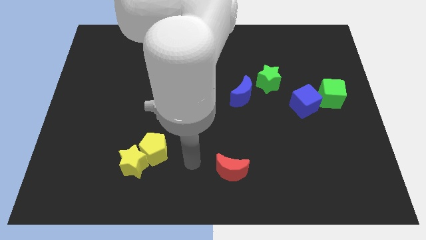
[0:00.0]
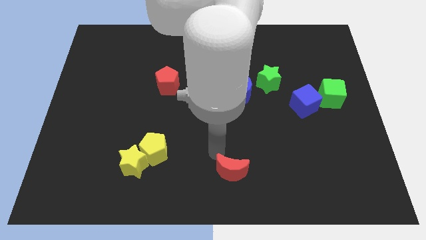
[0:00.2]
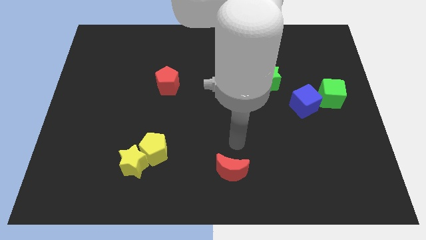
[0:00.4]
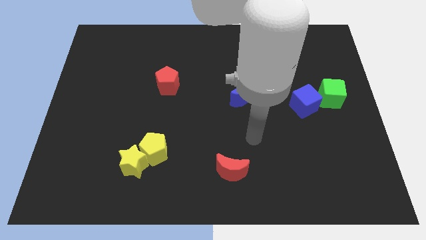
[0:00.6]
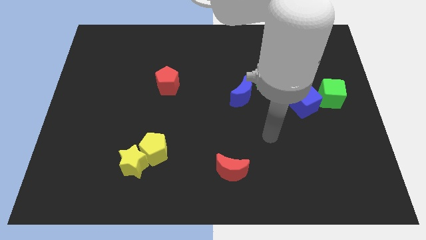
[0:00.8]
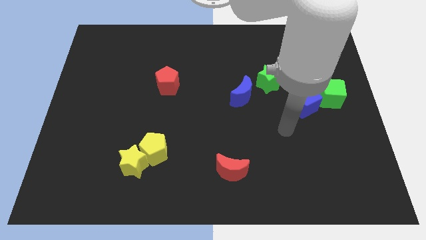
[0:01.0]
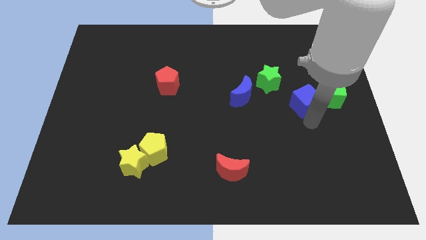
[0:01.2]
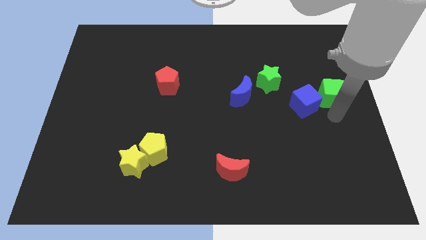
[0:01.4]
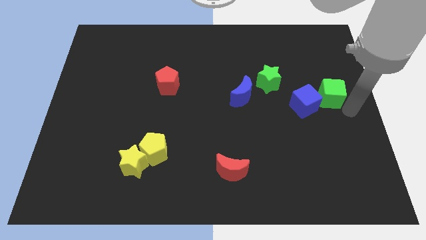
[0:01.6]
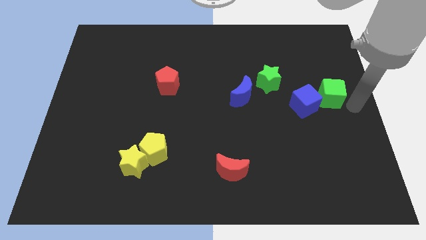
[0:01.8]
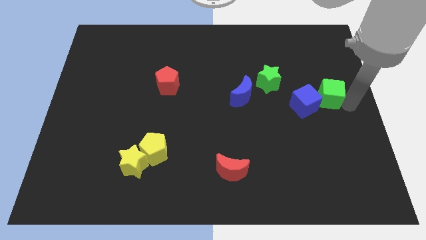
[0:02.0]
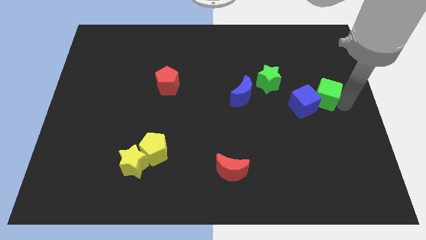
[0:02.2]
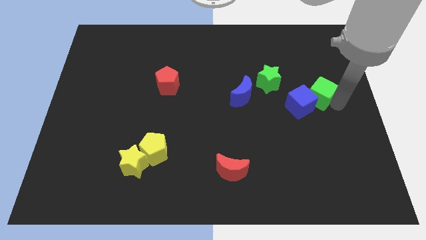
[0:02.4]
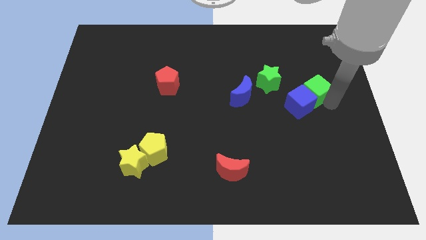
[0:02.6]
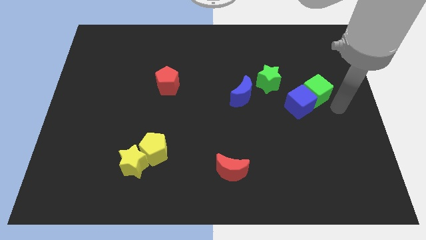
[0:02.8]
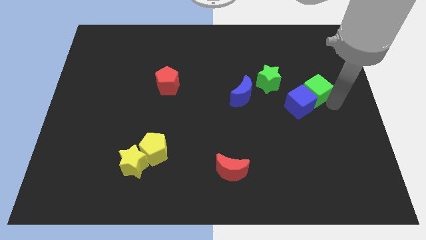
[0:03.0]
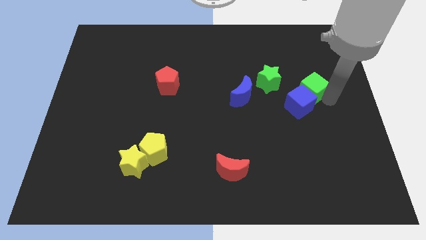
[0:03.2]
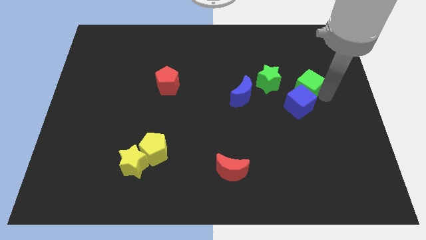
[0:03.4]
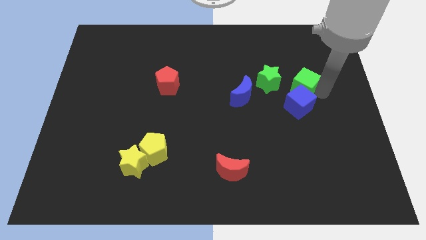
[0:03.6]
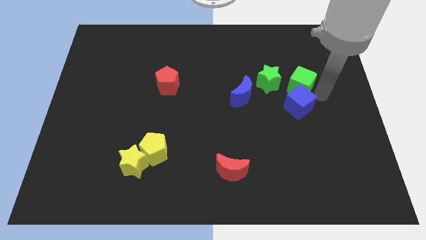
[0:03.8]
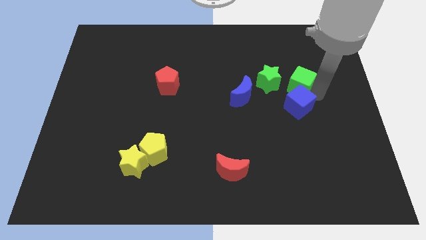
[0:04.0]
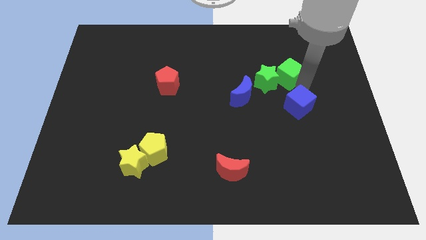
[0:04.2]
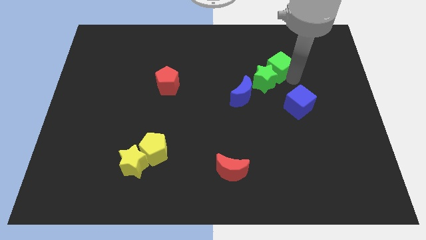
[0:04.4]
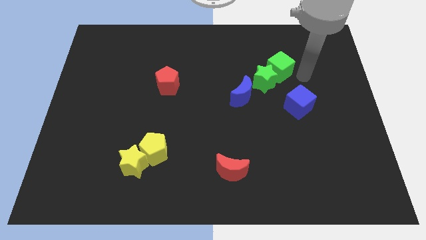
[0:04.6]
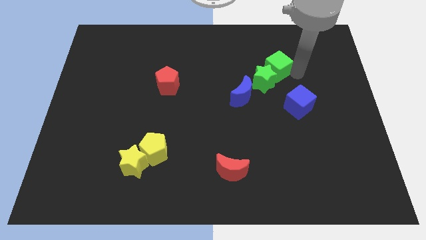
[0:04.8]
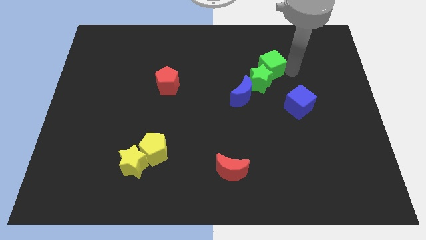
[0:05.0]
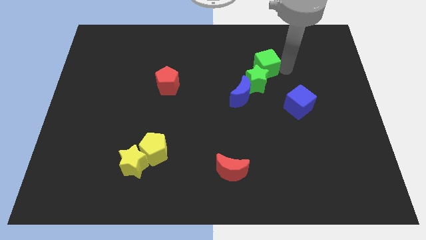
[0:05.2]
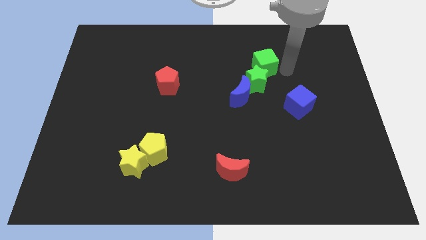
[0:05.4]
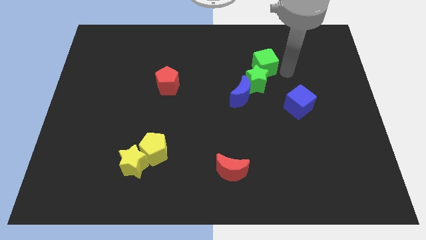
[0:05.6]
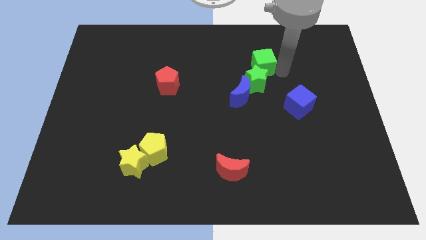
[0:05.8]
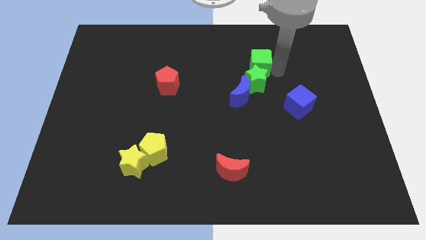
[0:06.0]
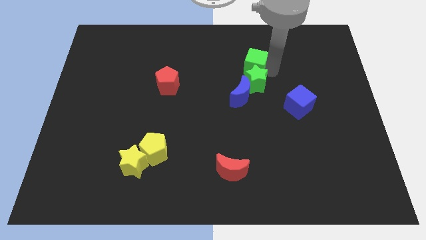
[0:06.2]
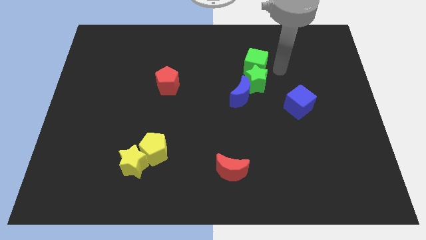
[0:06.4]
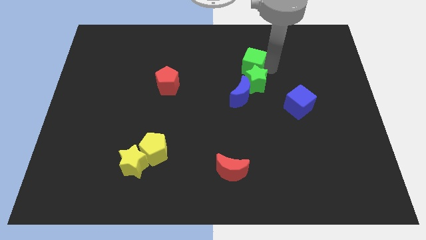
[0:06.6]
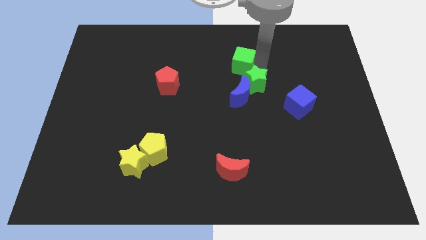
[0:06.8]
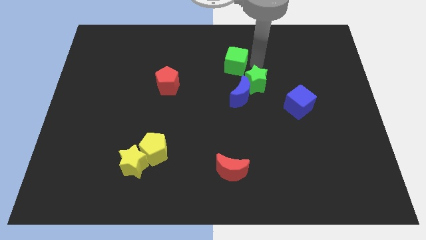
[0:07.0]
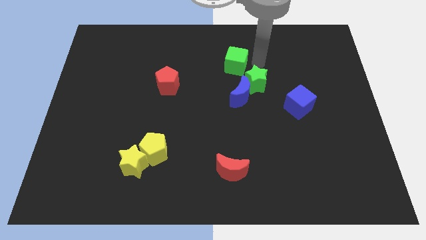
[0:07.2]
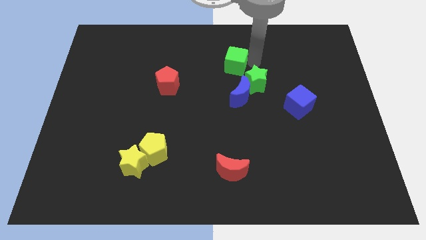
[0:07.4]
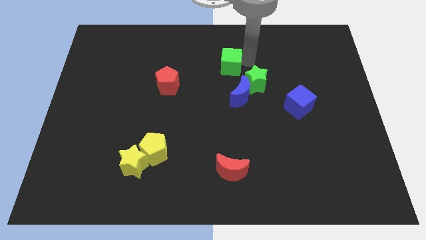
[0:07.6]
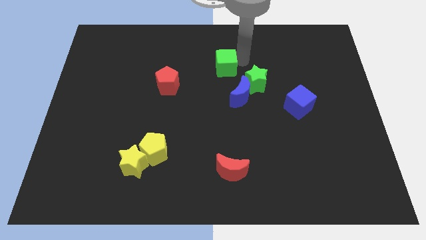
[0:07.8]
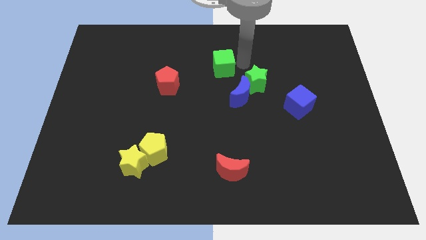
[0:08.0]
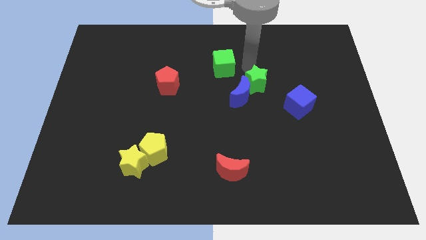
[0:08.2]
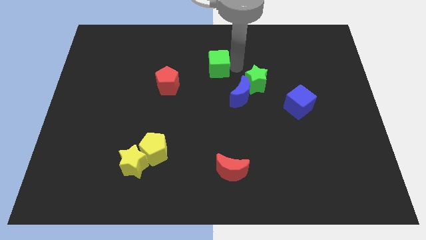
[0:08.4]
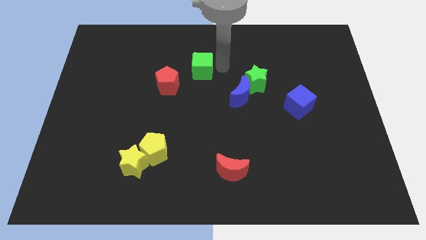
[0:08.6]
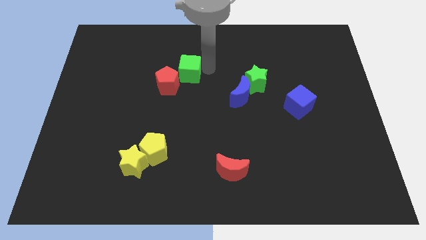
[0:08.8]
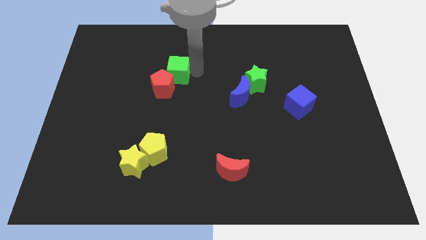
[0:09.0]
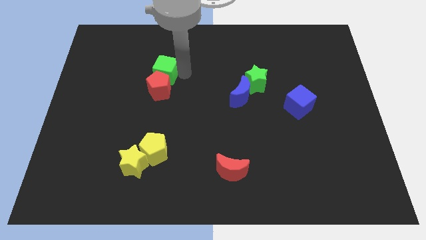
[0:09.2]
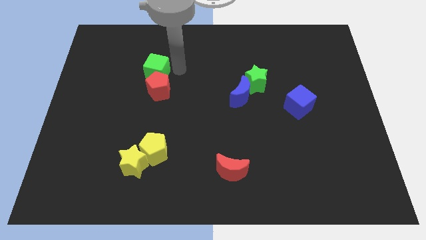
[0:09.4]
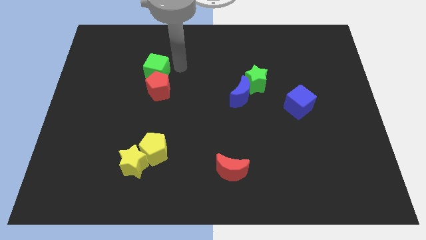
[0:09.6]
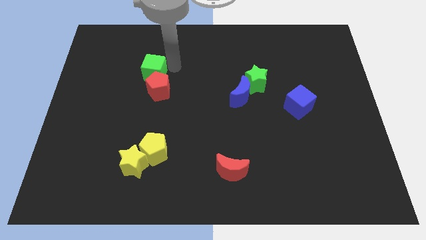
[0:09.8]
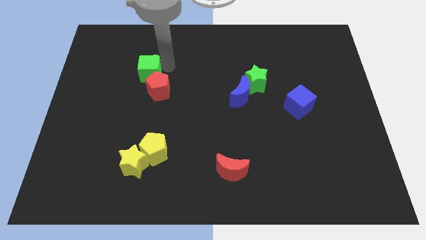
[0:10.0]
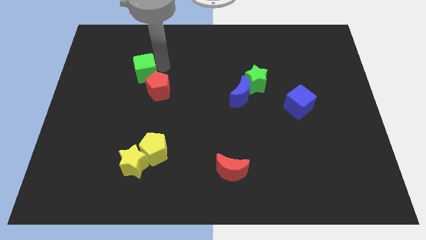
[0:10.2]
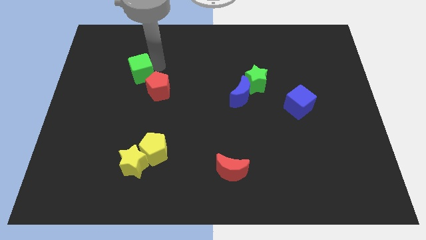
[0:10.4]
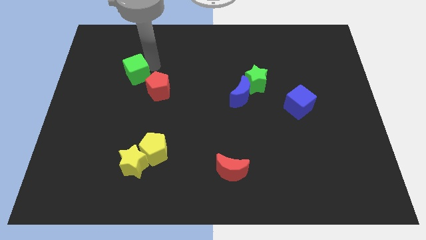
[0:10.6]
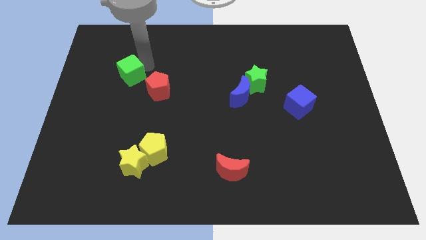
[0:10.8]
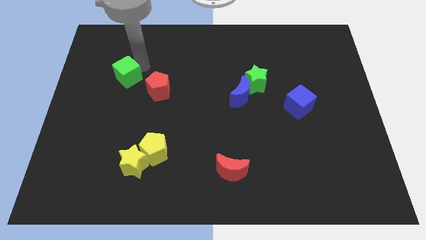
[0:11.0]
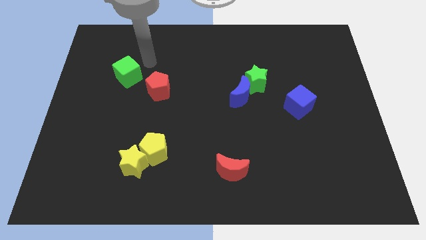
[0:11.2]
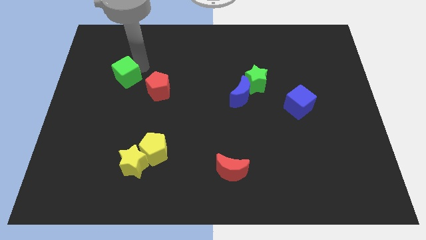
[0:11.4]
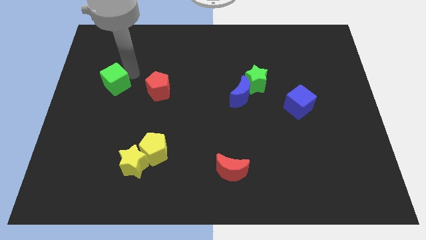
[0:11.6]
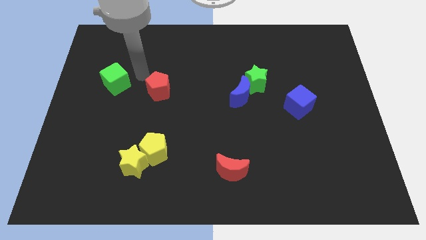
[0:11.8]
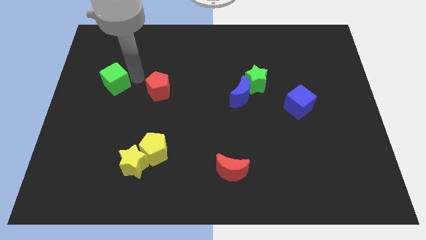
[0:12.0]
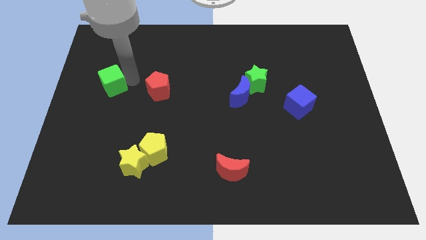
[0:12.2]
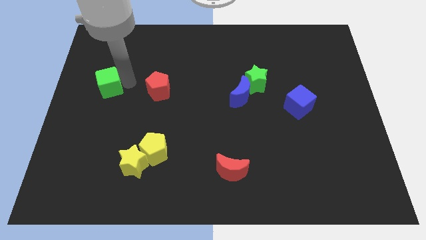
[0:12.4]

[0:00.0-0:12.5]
slide the green cube to the center left
